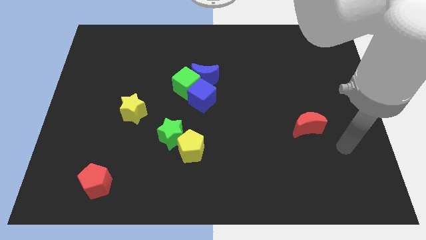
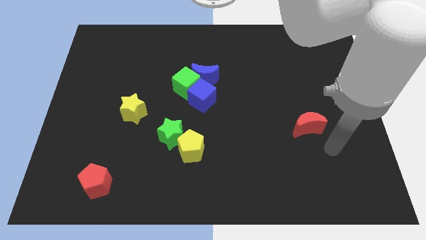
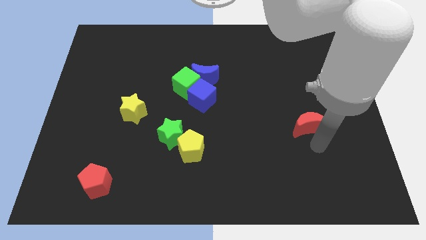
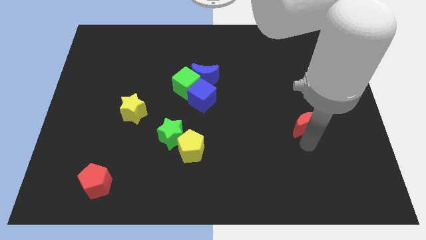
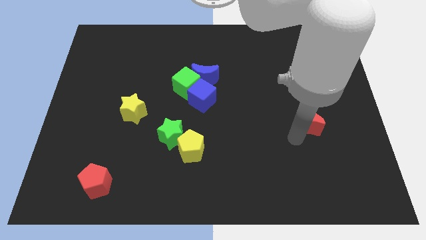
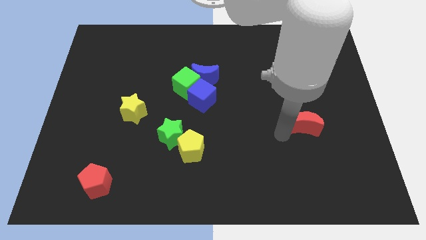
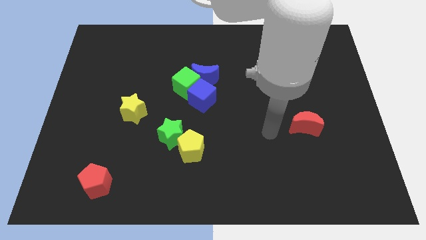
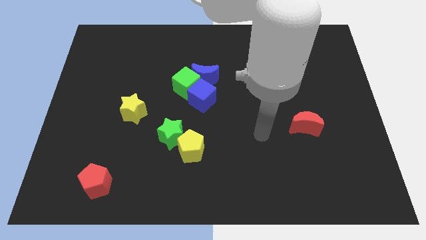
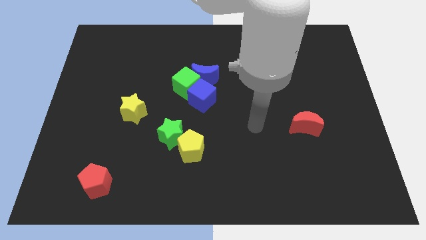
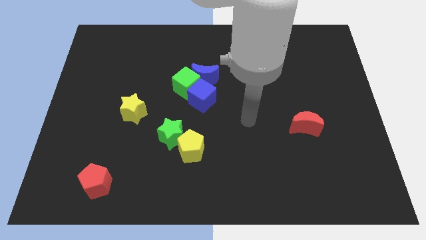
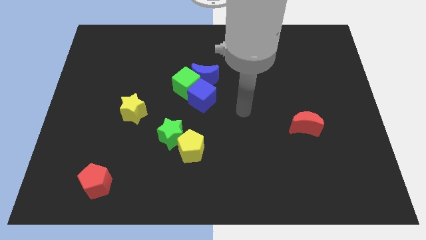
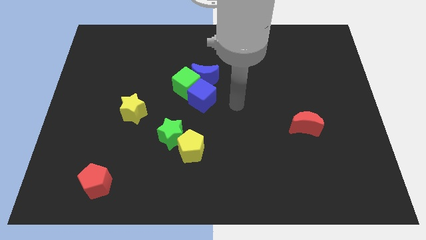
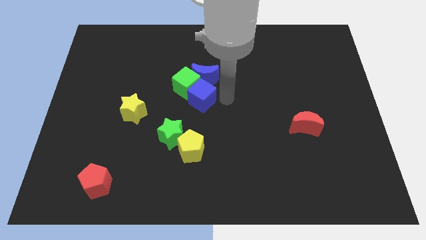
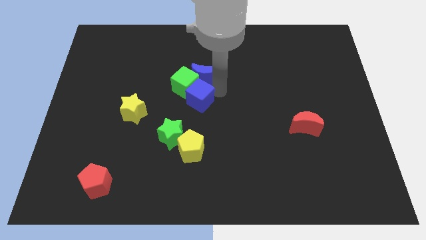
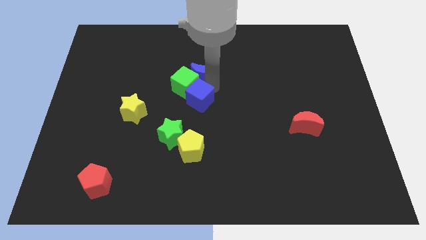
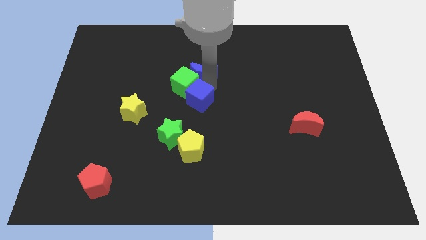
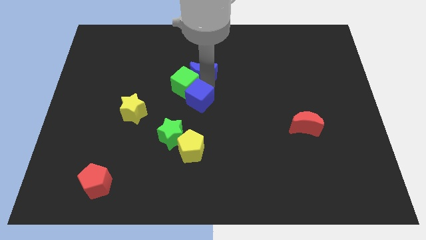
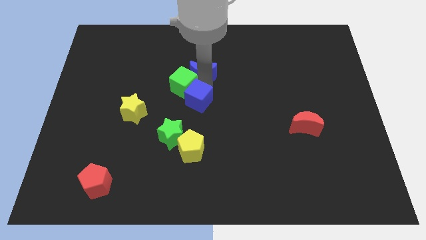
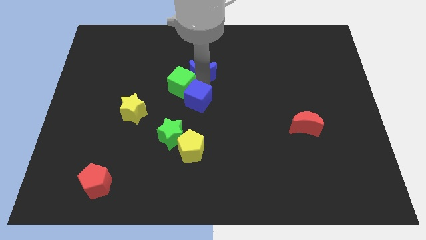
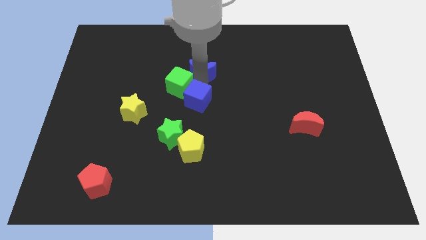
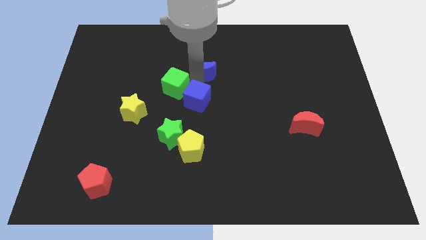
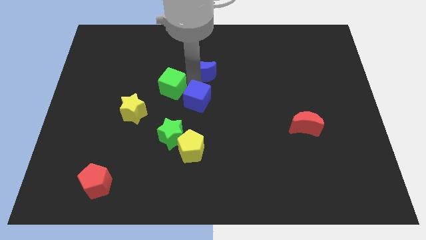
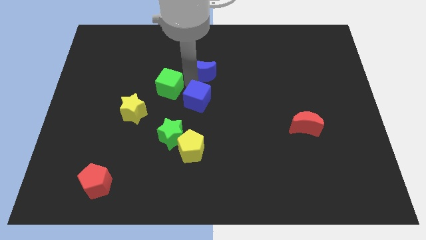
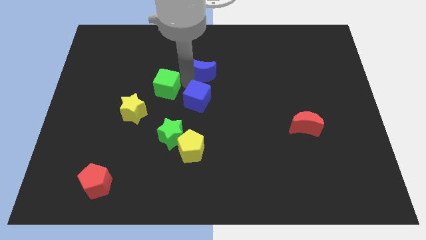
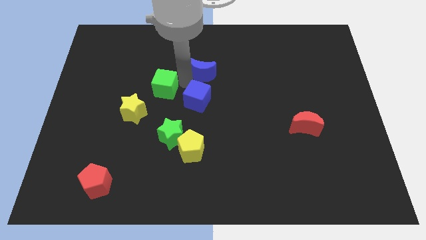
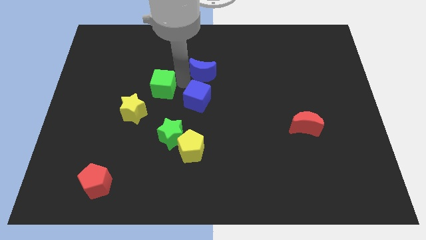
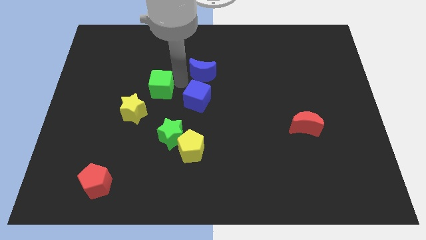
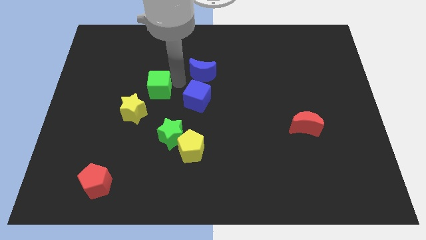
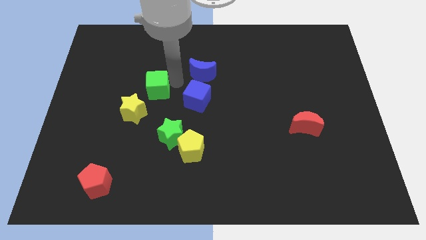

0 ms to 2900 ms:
move the green cube away from the blue moon and blue cube

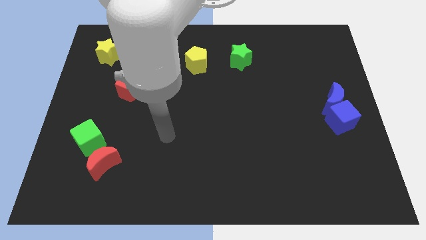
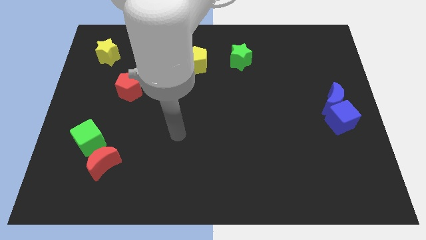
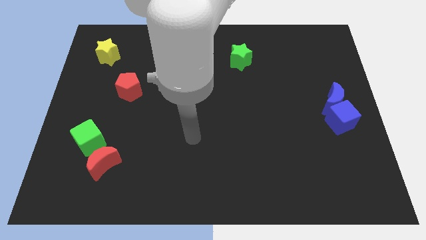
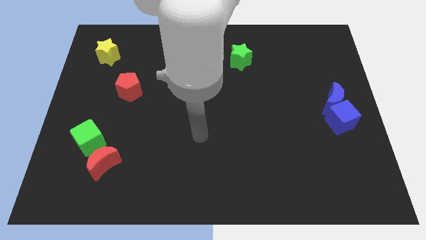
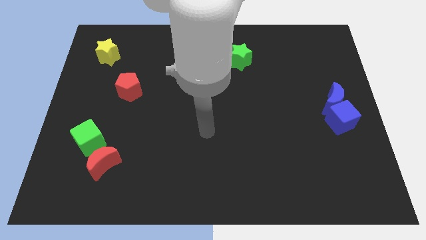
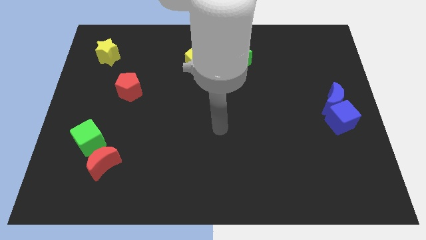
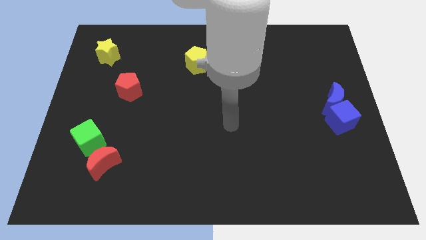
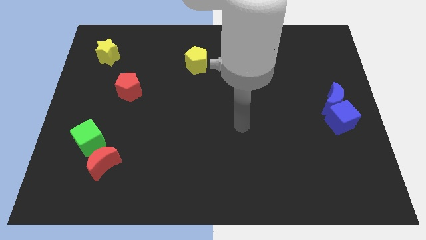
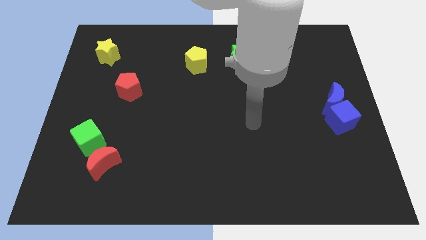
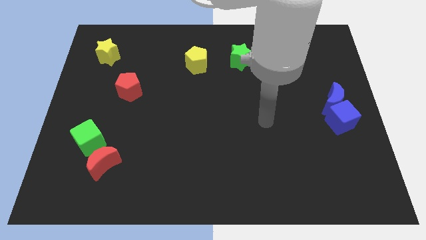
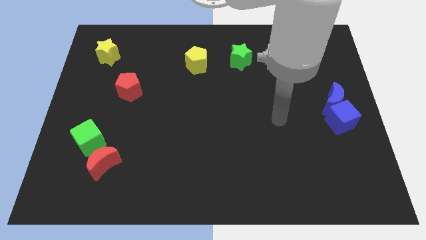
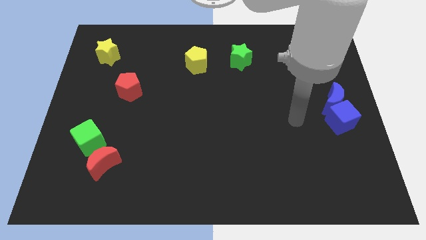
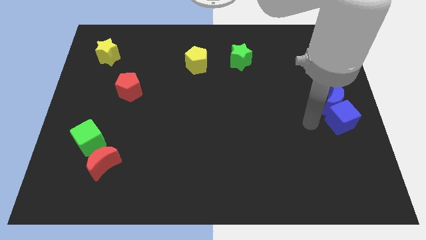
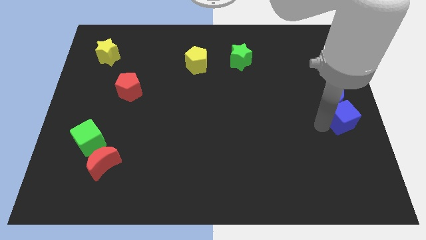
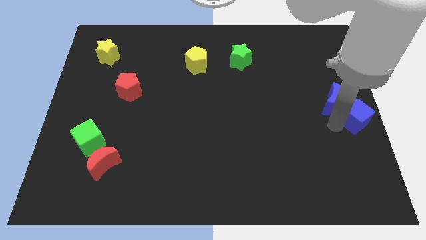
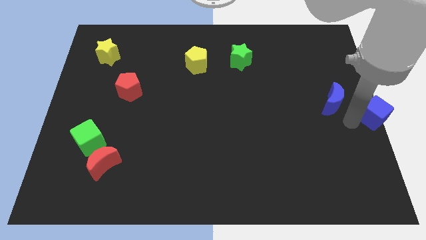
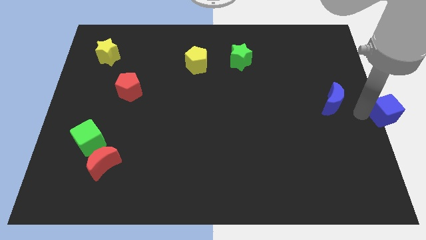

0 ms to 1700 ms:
pull the blue moon apart from the blue cube

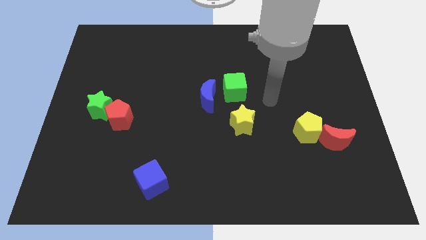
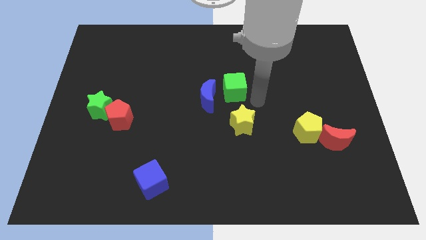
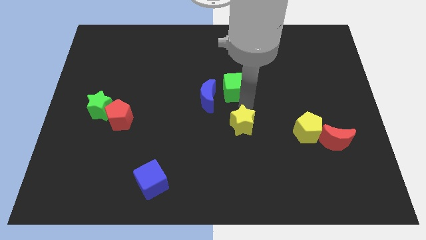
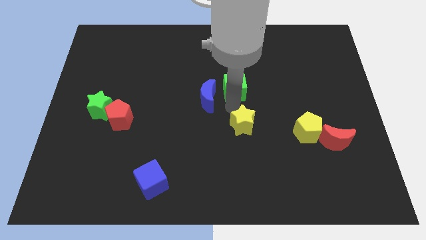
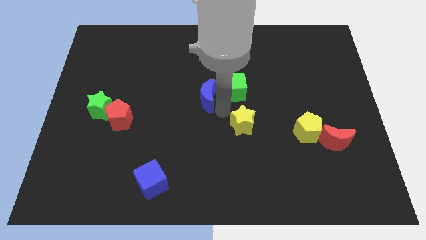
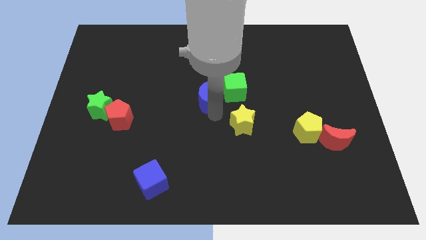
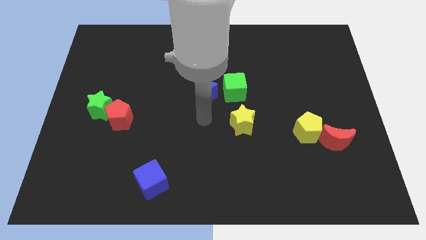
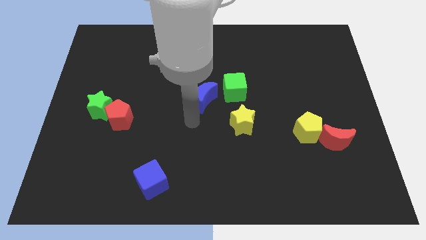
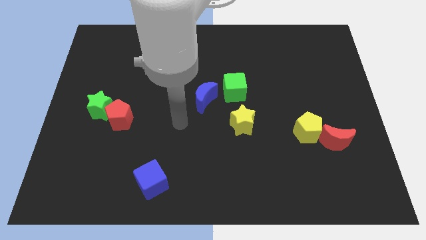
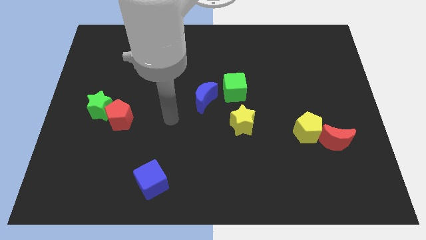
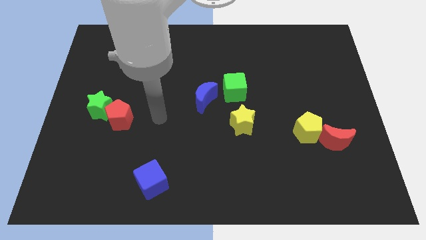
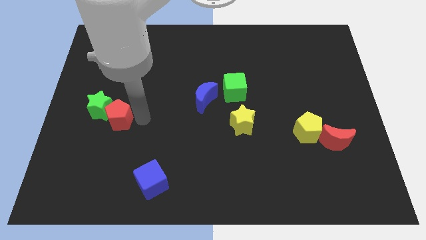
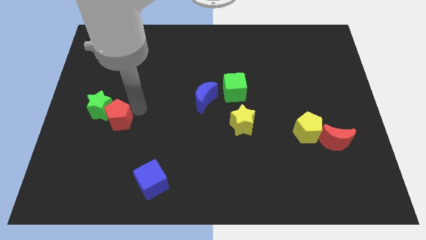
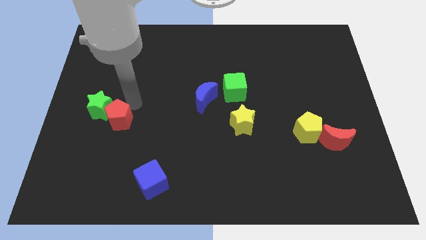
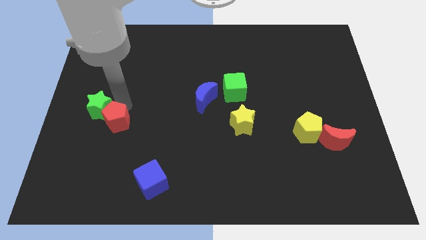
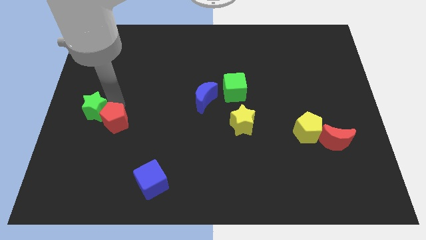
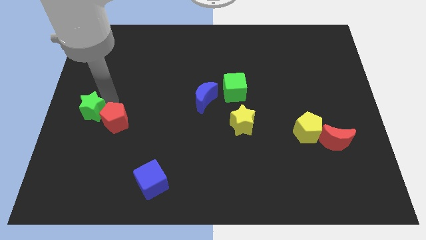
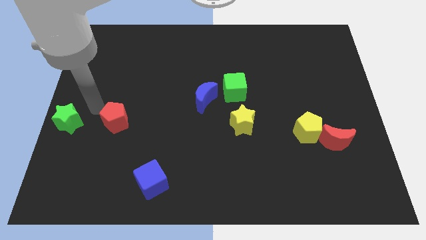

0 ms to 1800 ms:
pull the red pentagon apart from the green star

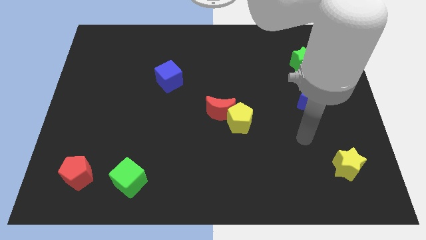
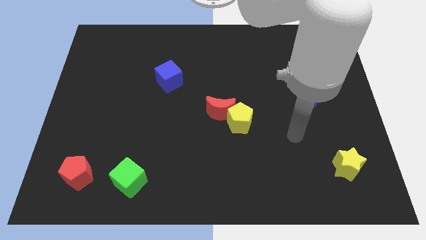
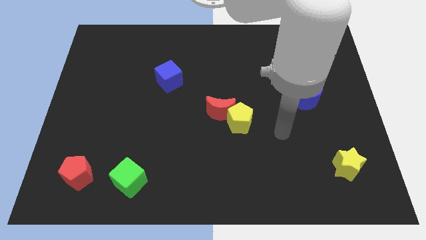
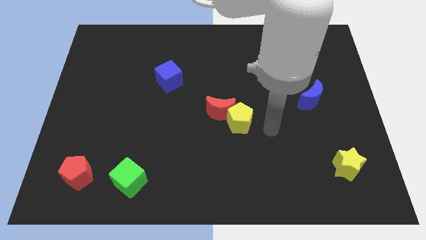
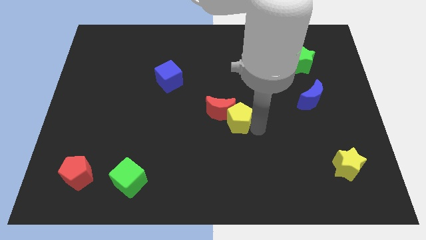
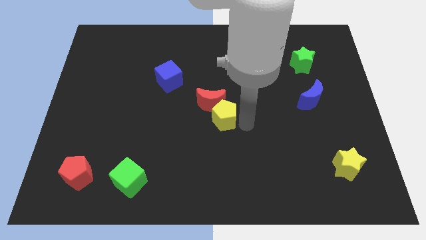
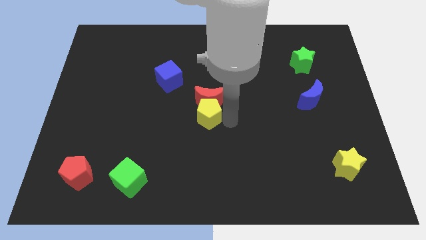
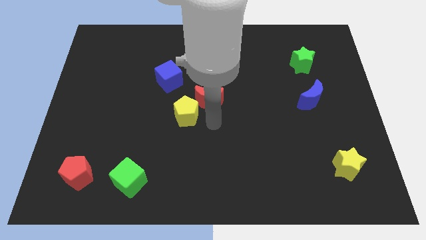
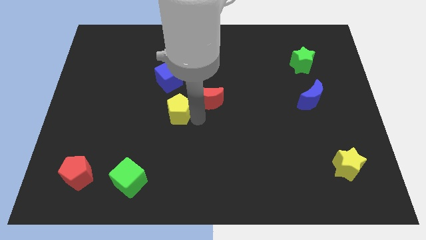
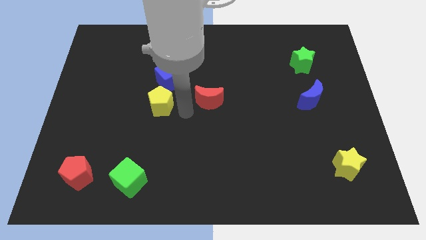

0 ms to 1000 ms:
separate the red moon from the yellow pentagon

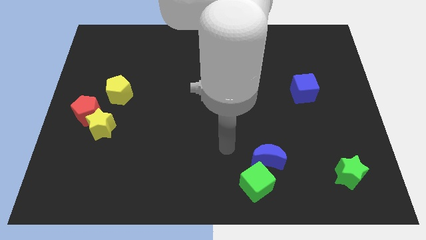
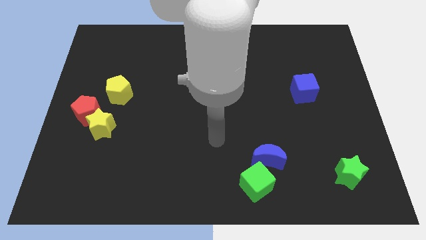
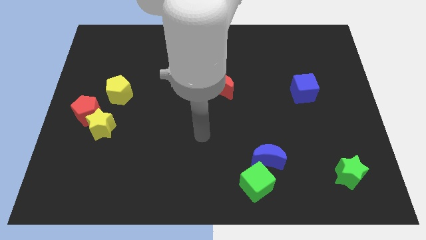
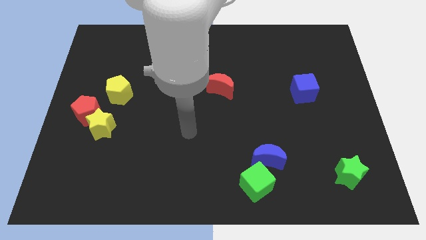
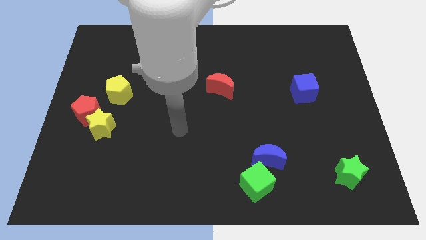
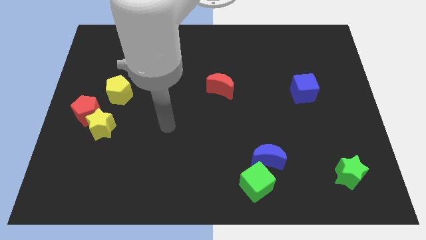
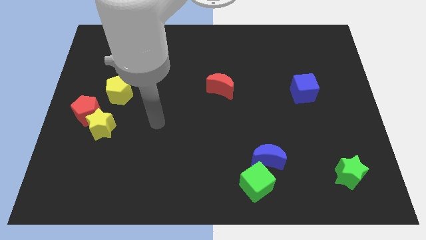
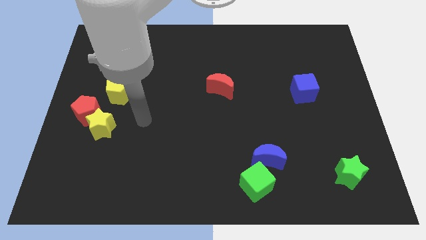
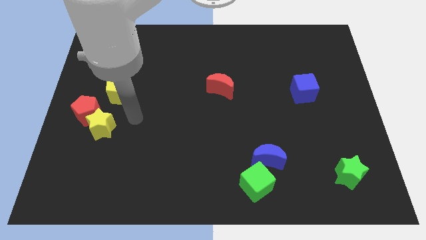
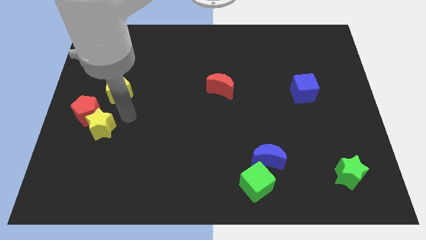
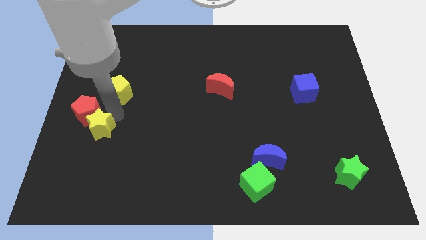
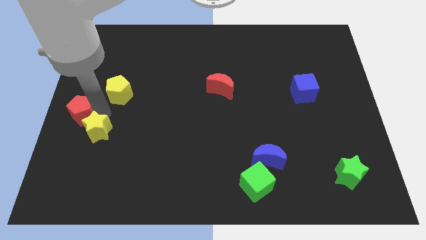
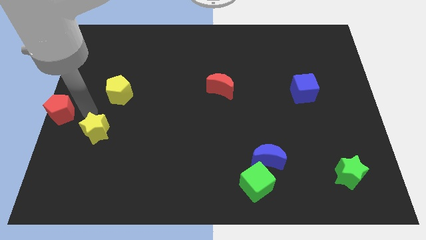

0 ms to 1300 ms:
separate the yellow star from the red pentagon

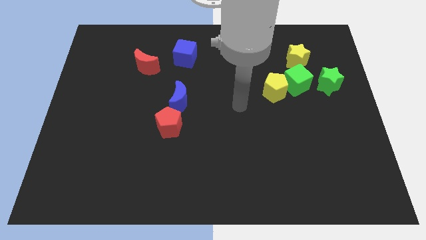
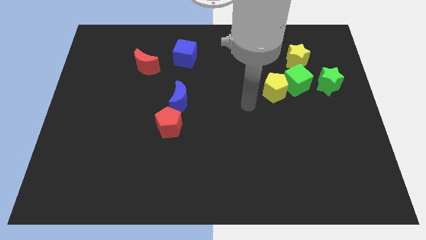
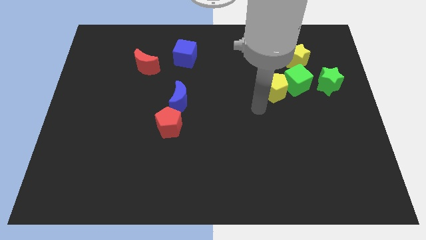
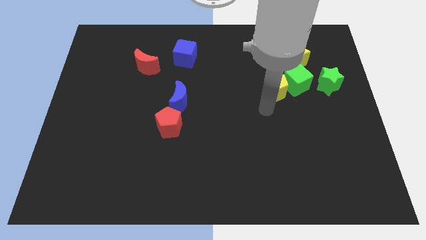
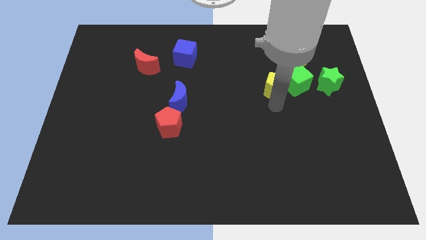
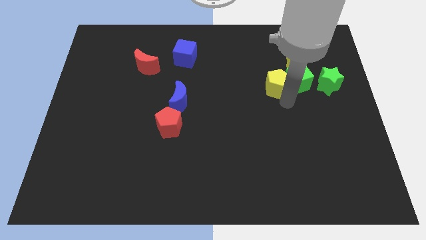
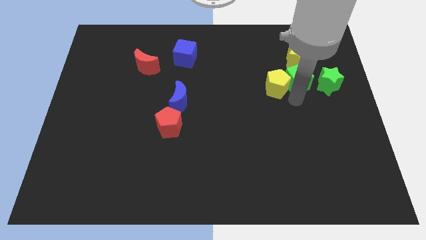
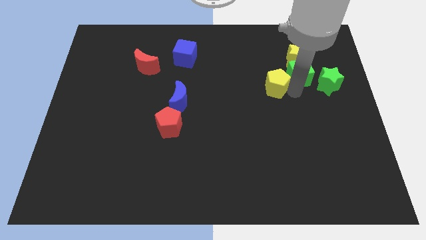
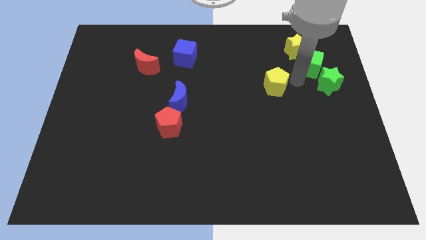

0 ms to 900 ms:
pull the yellow pentagon apart from the green cube
